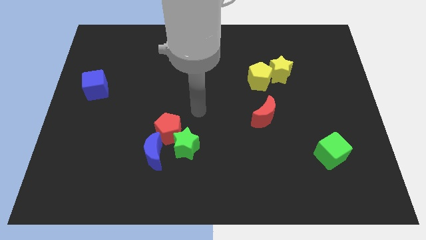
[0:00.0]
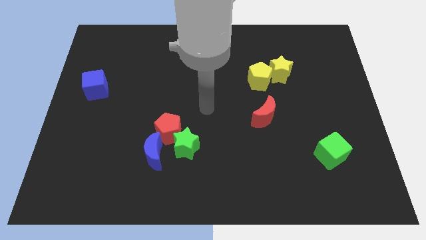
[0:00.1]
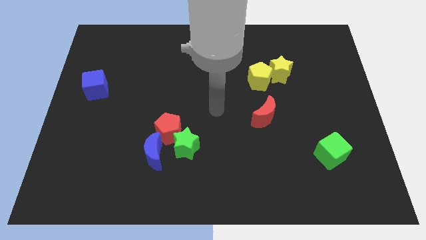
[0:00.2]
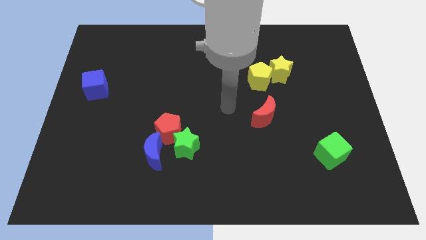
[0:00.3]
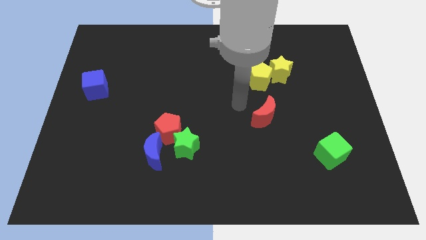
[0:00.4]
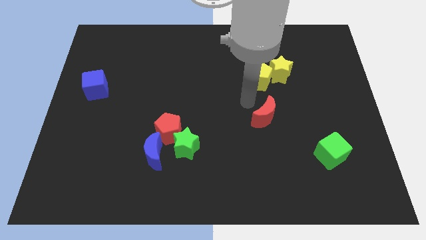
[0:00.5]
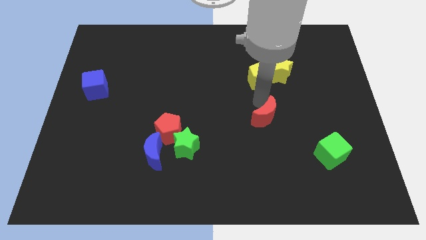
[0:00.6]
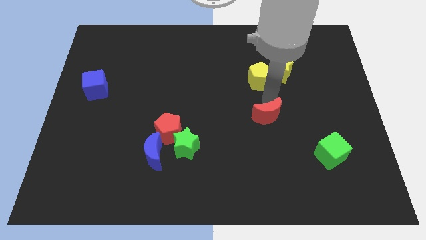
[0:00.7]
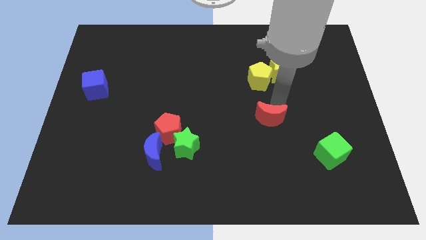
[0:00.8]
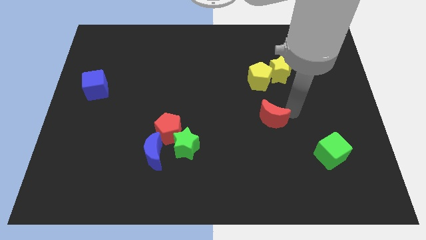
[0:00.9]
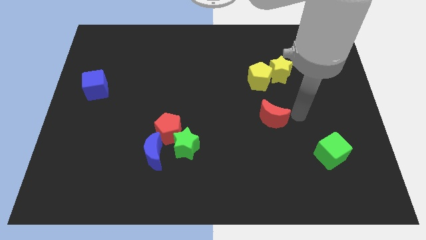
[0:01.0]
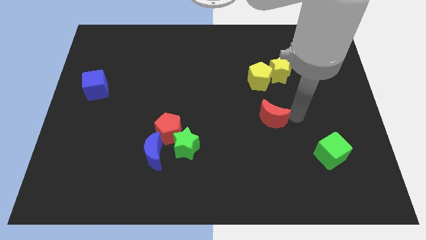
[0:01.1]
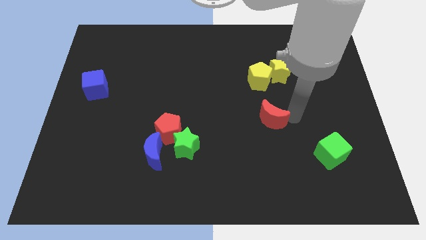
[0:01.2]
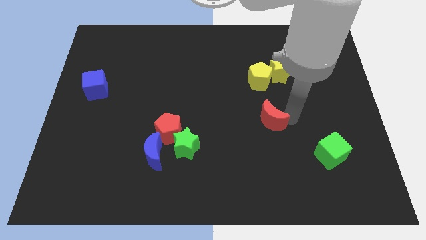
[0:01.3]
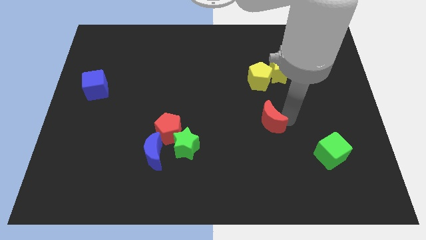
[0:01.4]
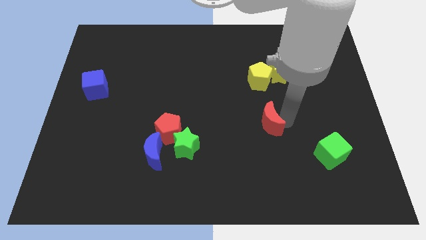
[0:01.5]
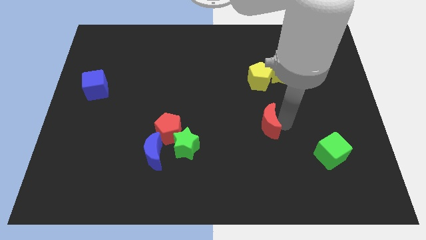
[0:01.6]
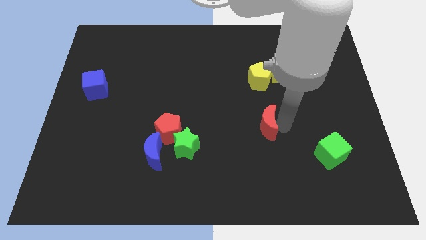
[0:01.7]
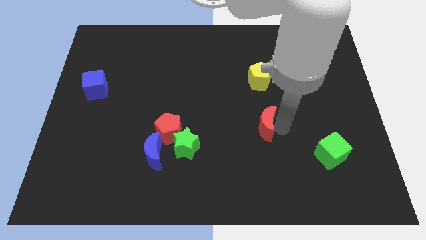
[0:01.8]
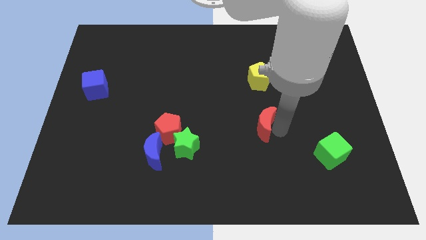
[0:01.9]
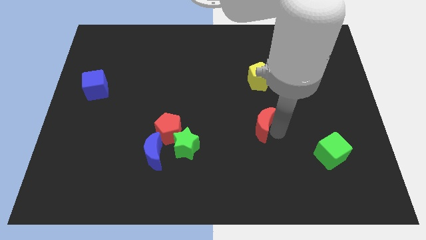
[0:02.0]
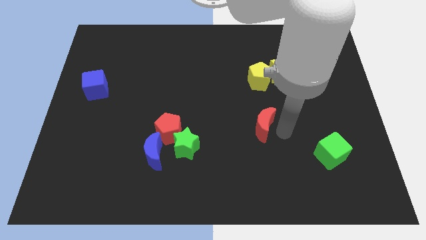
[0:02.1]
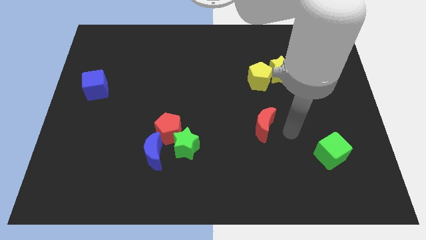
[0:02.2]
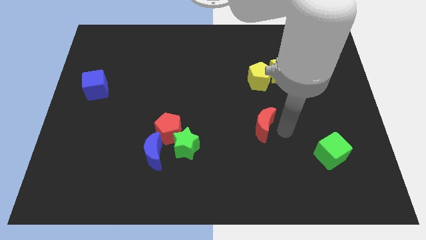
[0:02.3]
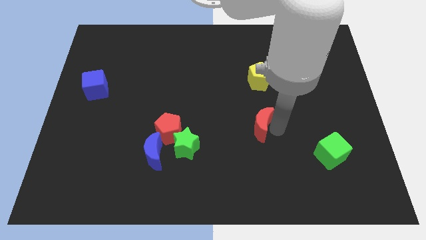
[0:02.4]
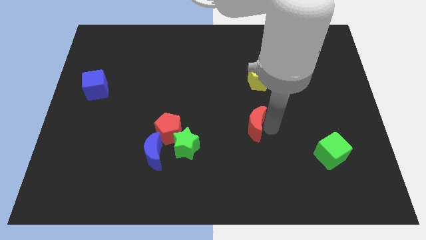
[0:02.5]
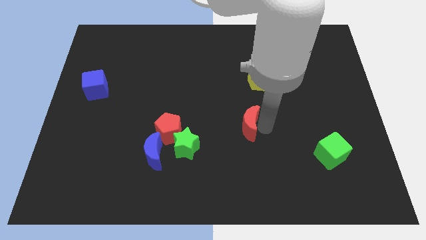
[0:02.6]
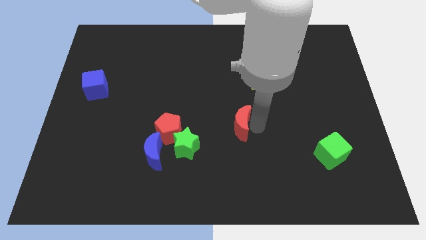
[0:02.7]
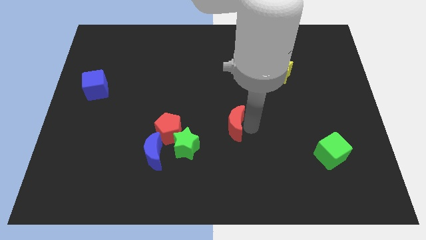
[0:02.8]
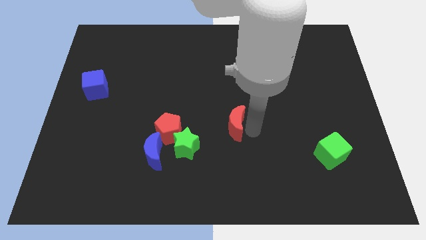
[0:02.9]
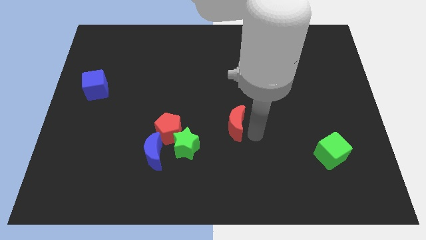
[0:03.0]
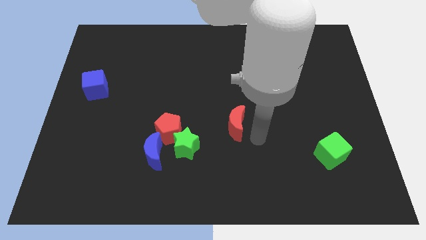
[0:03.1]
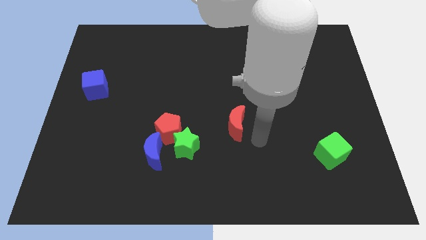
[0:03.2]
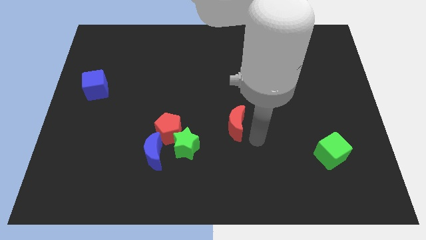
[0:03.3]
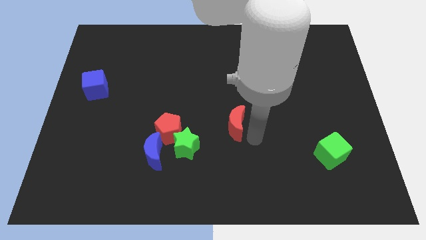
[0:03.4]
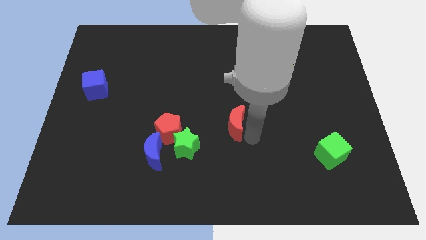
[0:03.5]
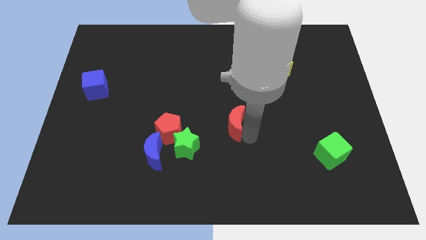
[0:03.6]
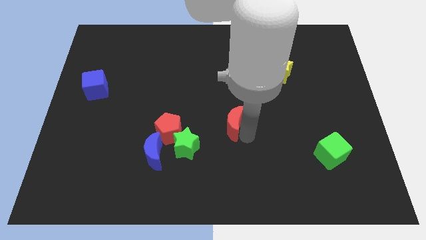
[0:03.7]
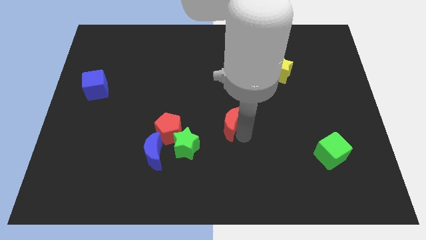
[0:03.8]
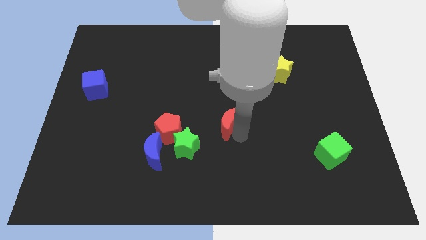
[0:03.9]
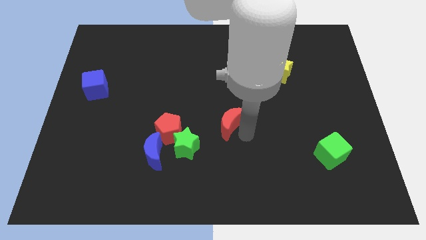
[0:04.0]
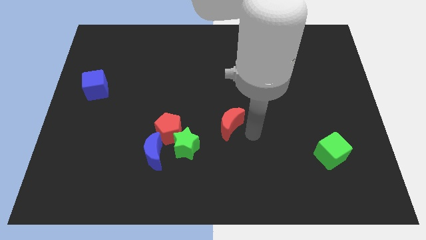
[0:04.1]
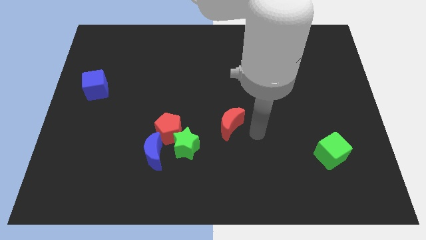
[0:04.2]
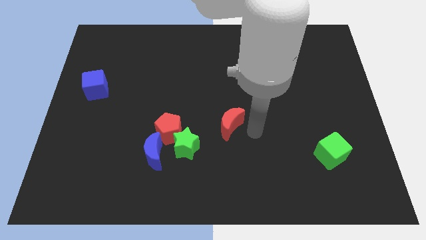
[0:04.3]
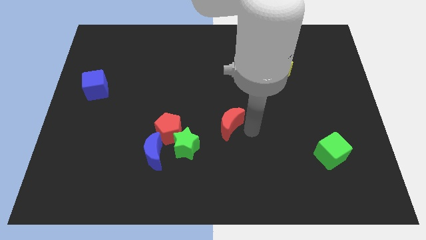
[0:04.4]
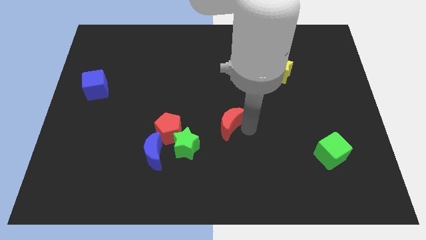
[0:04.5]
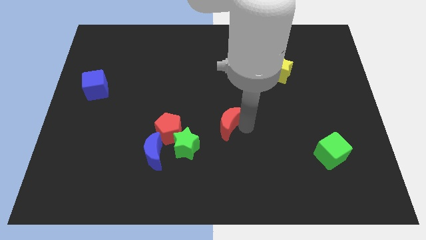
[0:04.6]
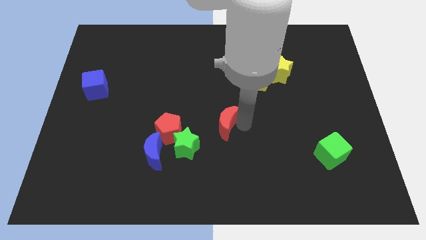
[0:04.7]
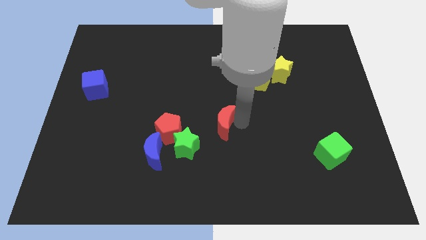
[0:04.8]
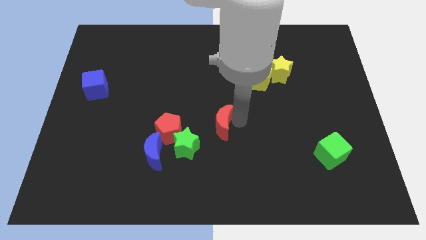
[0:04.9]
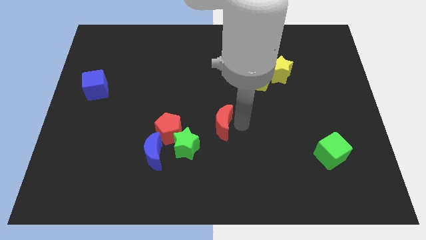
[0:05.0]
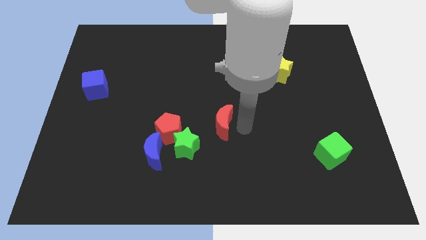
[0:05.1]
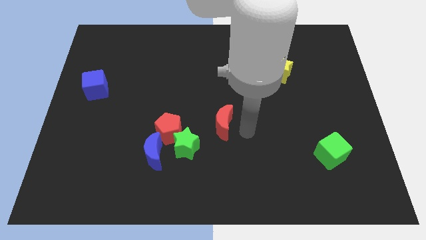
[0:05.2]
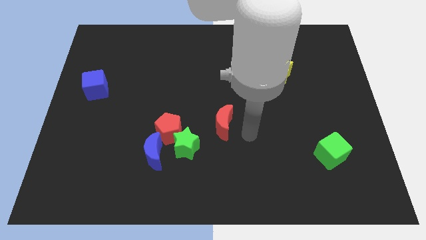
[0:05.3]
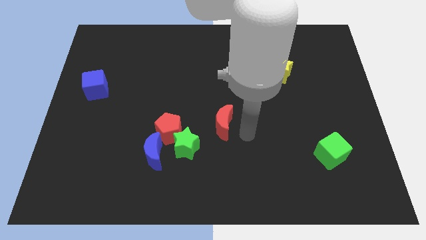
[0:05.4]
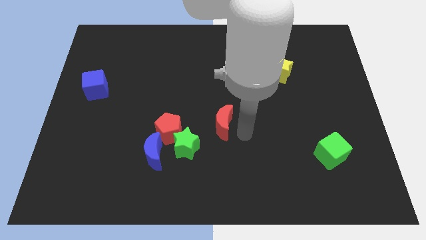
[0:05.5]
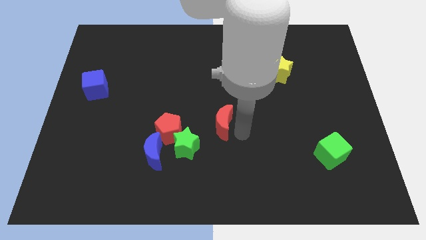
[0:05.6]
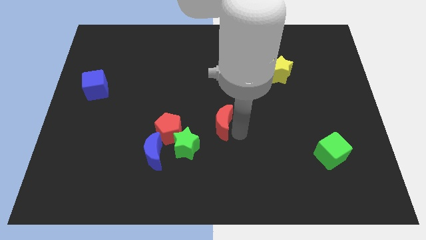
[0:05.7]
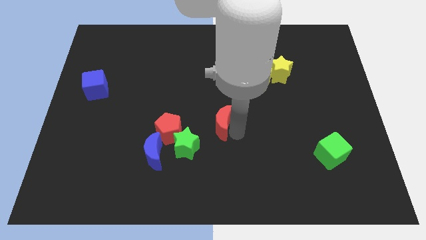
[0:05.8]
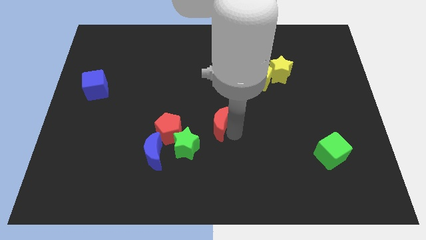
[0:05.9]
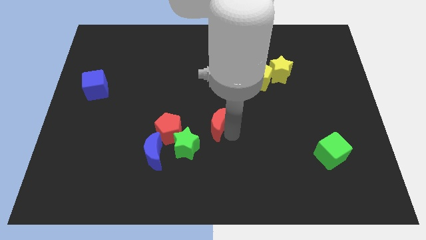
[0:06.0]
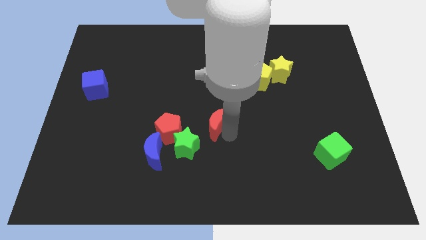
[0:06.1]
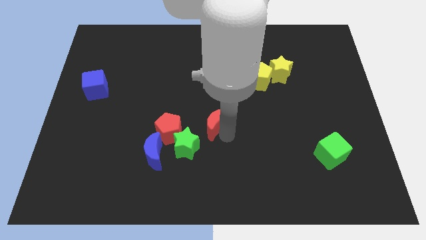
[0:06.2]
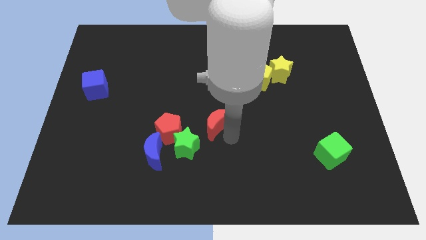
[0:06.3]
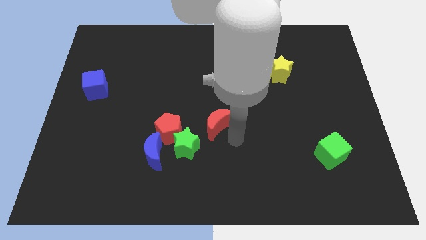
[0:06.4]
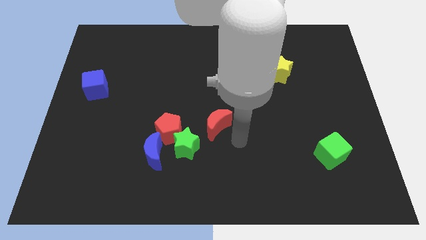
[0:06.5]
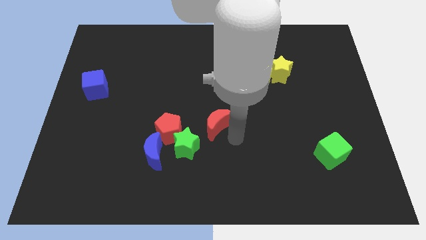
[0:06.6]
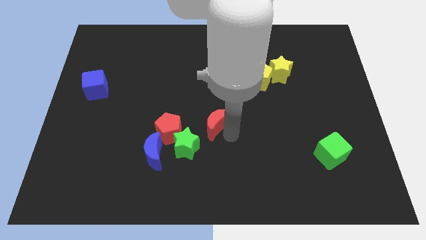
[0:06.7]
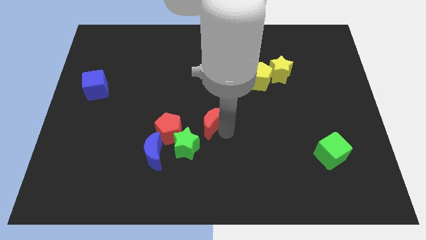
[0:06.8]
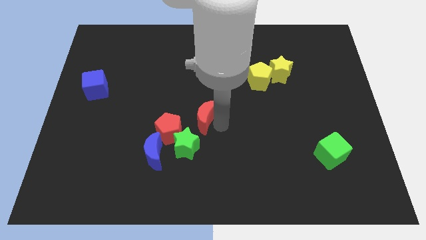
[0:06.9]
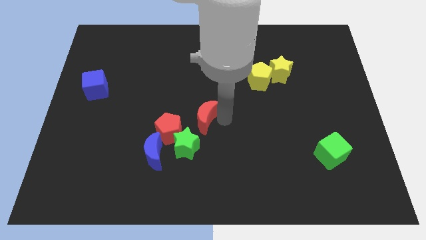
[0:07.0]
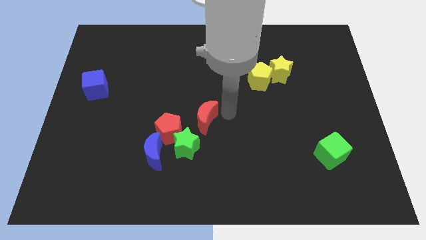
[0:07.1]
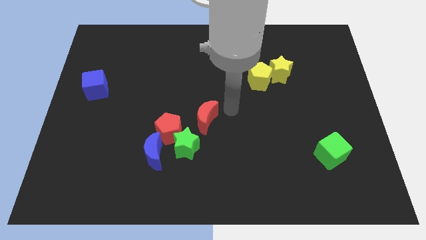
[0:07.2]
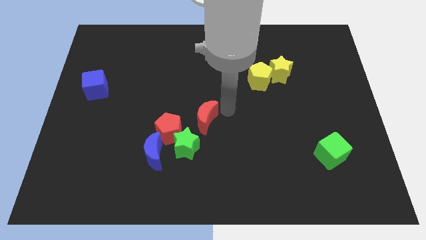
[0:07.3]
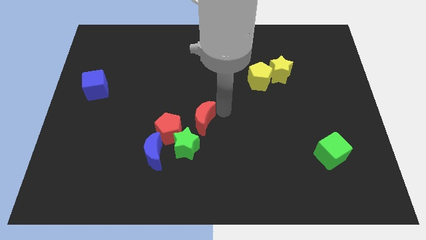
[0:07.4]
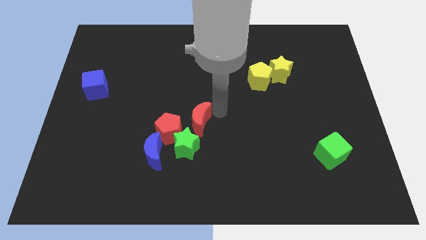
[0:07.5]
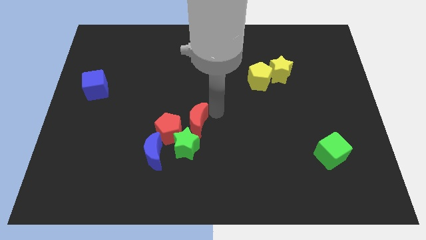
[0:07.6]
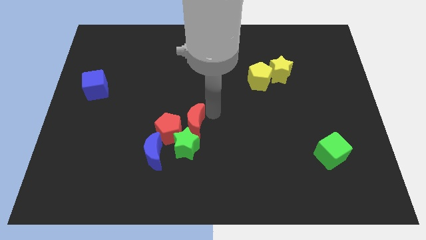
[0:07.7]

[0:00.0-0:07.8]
move the red moon next to the red pentagon
